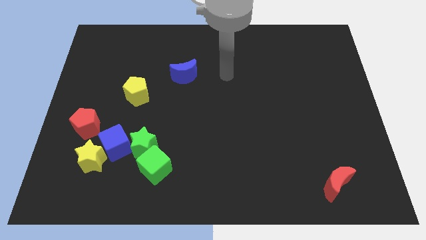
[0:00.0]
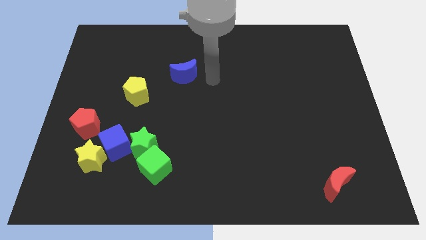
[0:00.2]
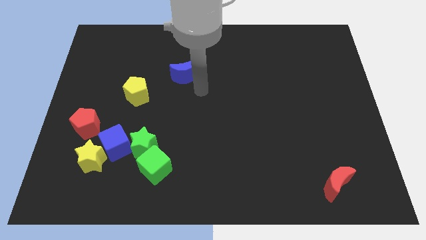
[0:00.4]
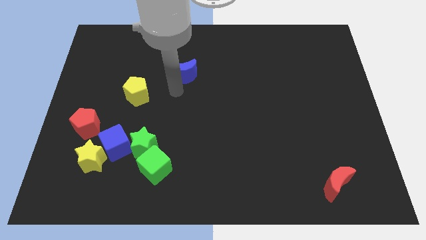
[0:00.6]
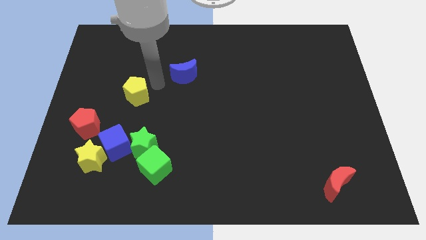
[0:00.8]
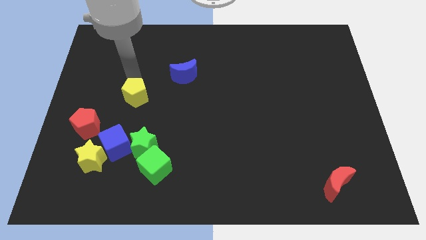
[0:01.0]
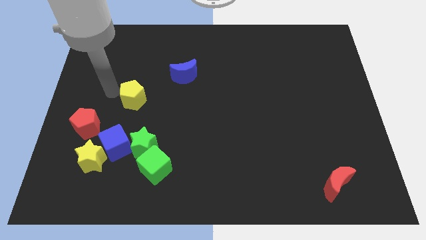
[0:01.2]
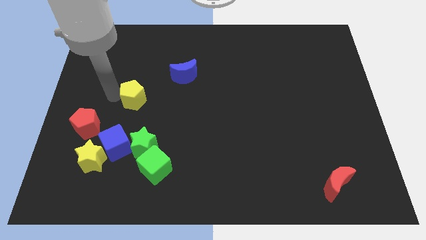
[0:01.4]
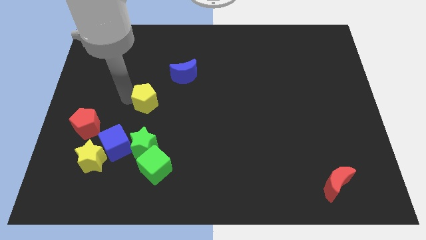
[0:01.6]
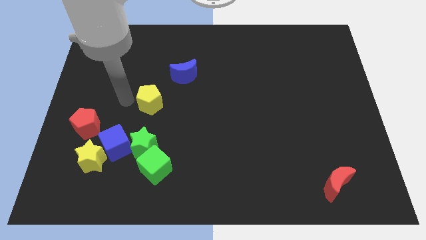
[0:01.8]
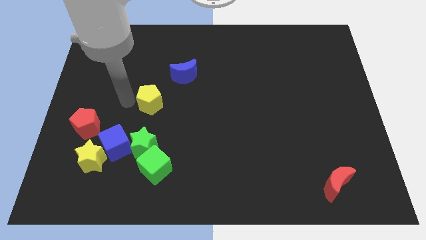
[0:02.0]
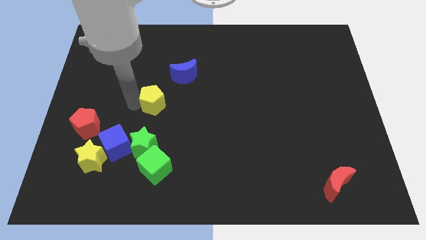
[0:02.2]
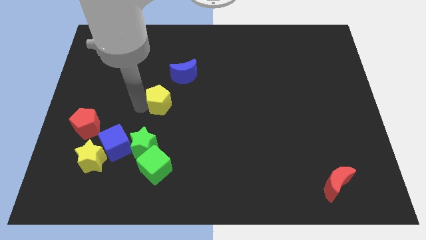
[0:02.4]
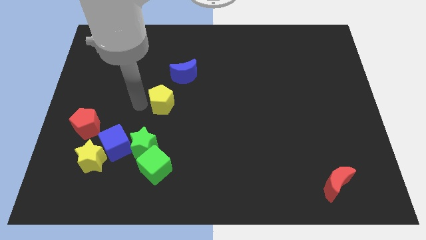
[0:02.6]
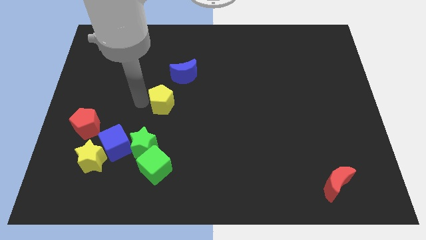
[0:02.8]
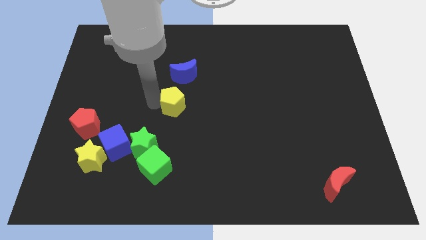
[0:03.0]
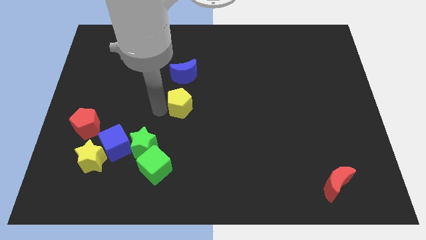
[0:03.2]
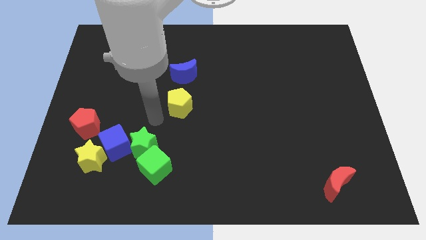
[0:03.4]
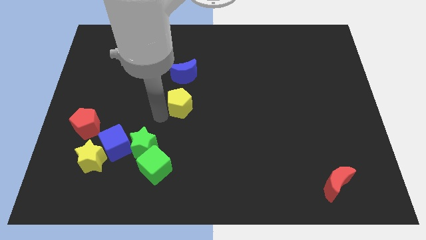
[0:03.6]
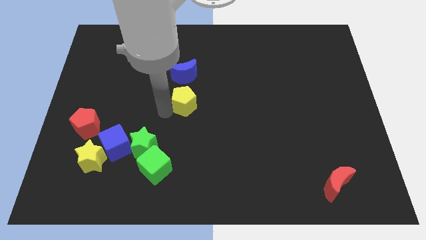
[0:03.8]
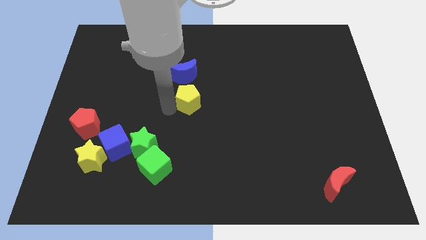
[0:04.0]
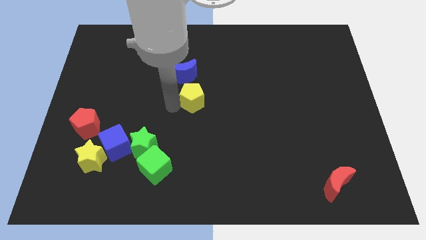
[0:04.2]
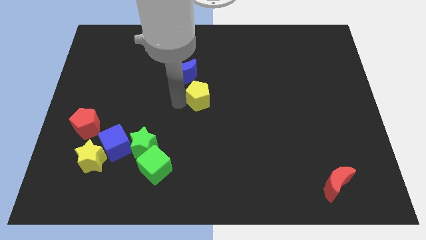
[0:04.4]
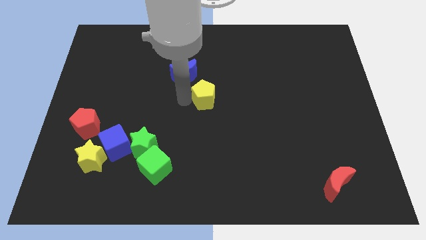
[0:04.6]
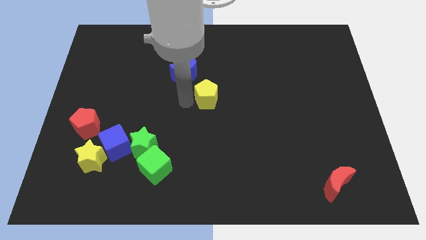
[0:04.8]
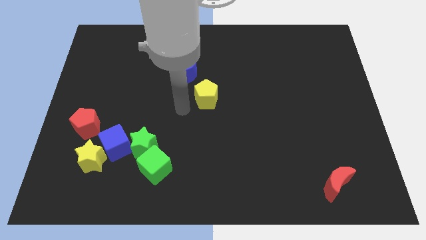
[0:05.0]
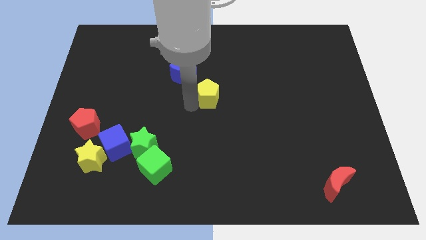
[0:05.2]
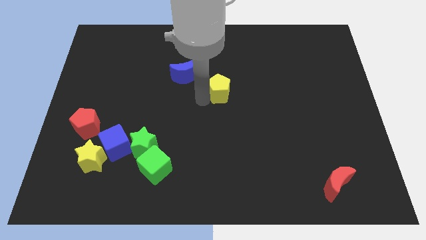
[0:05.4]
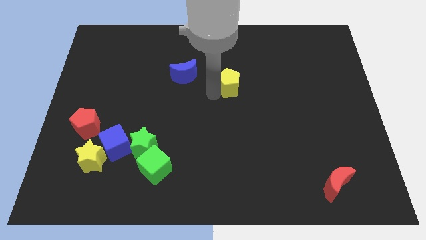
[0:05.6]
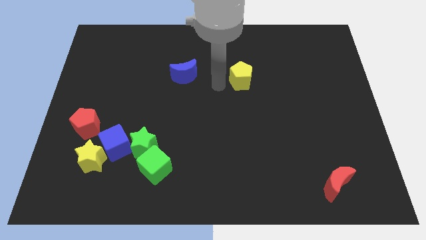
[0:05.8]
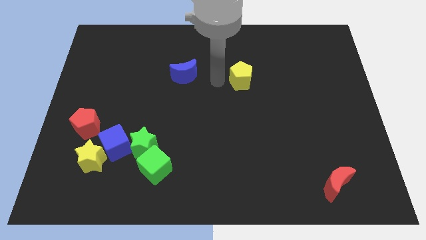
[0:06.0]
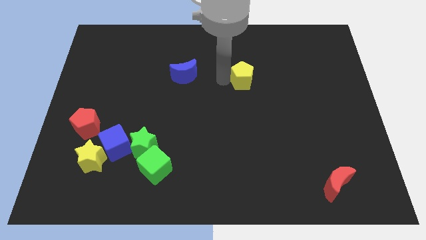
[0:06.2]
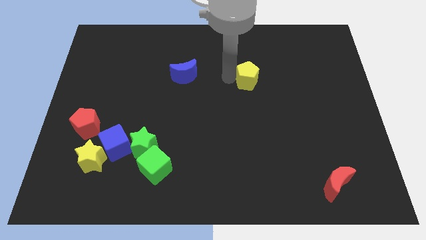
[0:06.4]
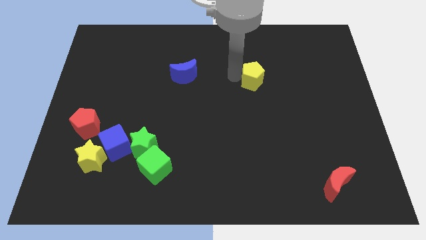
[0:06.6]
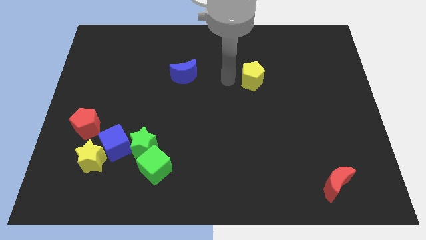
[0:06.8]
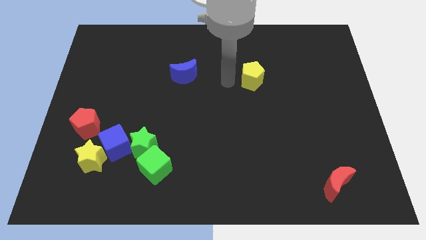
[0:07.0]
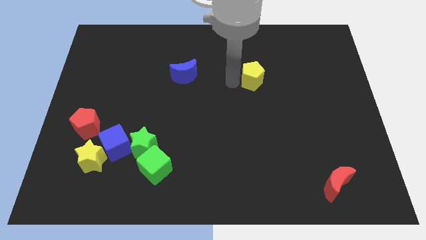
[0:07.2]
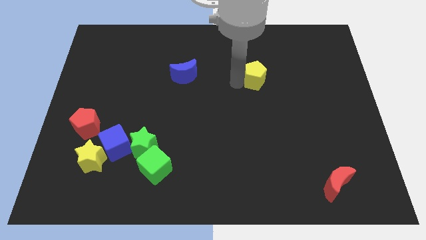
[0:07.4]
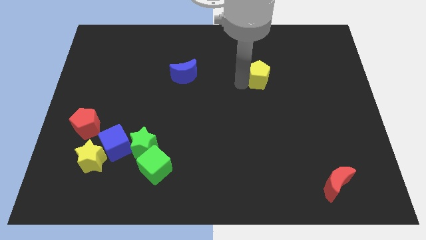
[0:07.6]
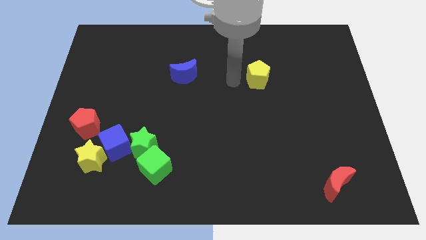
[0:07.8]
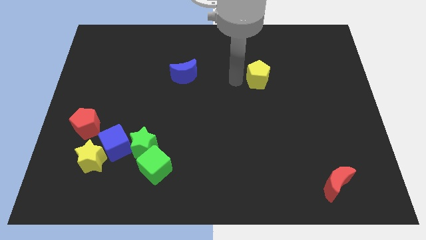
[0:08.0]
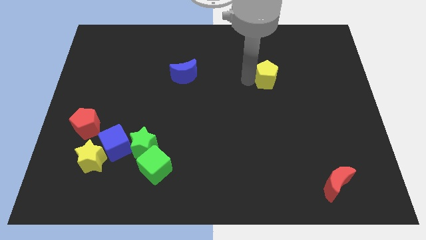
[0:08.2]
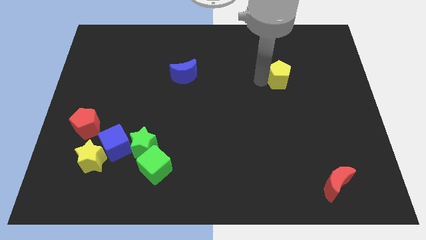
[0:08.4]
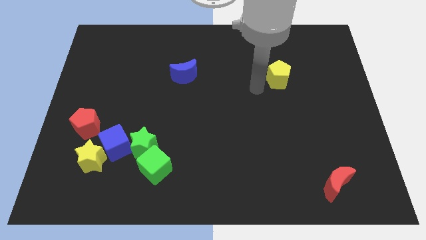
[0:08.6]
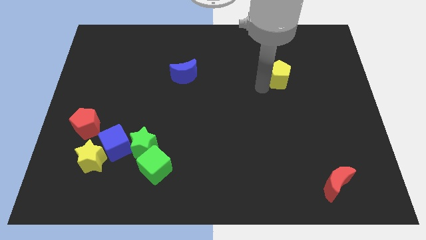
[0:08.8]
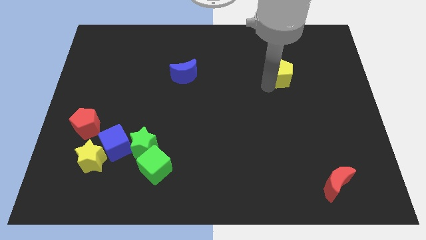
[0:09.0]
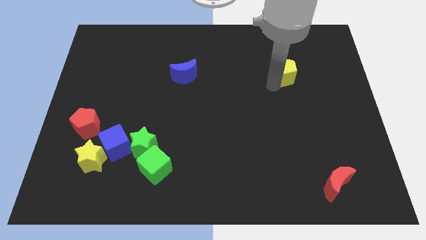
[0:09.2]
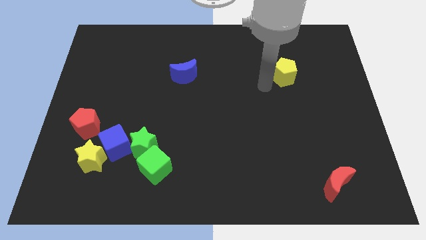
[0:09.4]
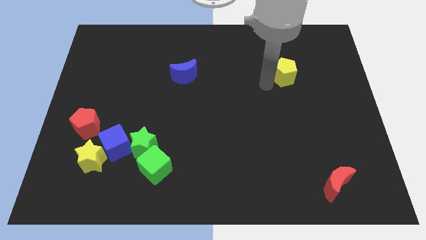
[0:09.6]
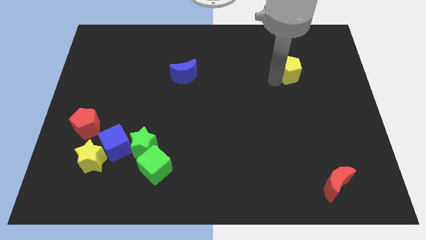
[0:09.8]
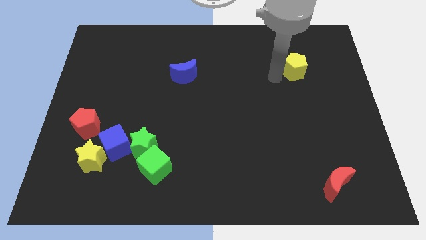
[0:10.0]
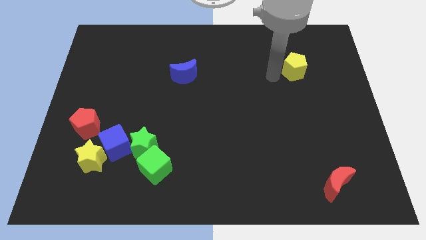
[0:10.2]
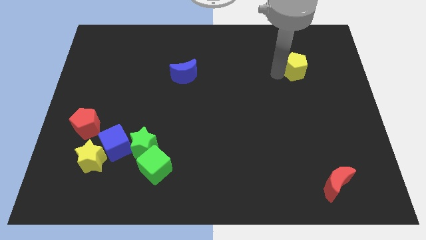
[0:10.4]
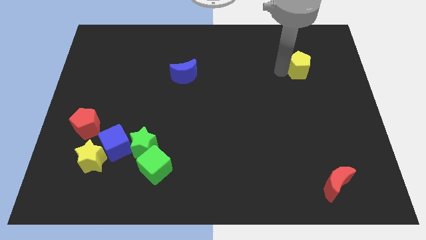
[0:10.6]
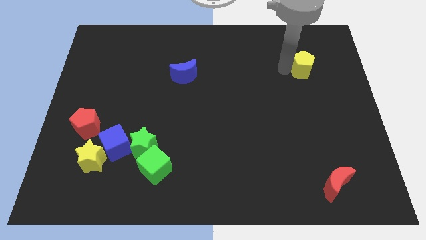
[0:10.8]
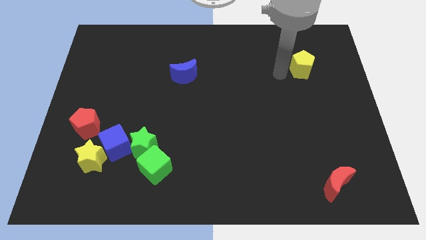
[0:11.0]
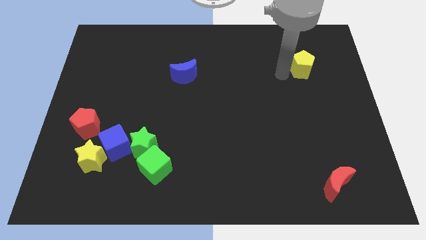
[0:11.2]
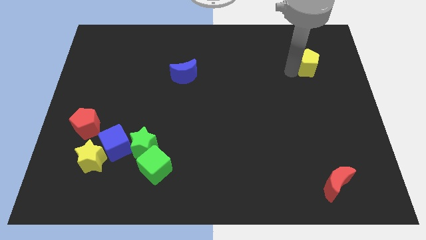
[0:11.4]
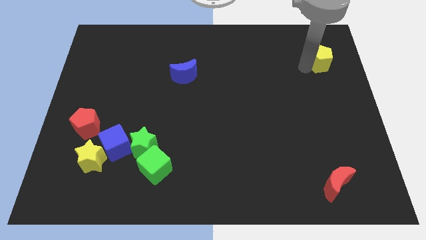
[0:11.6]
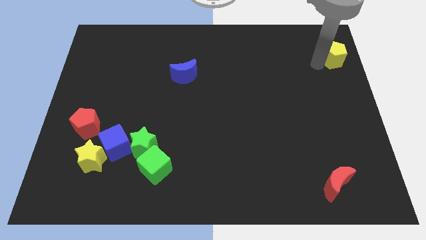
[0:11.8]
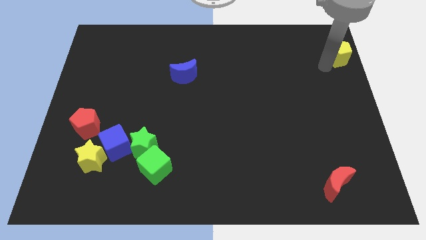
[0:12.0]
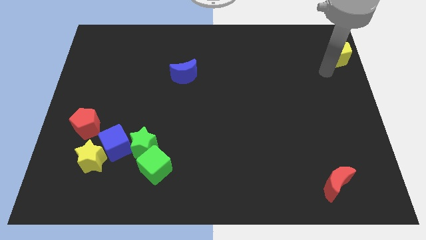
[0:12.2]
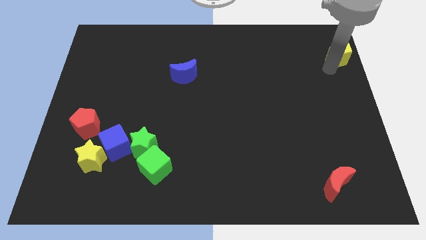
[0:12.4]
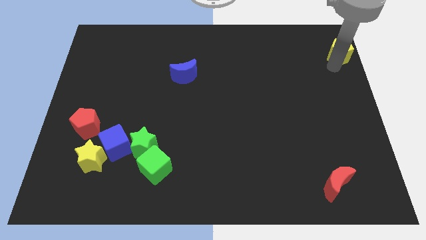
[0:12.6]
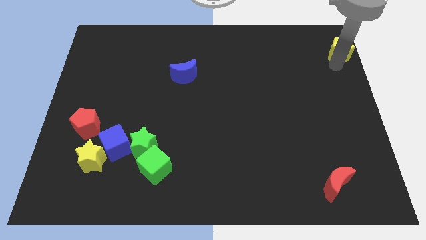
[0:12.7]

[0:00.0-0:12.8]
push the yellow pentagon to the top right corner
